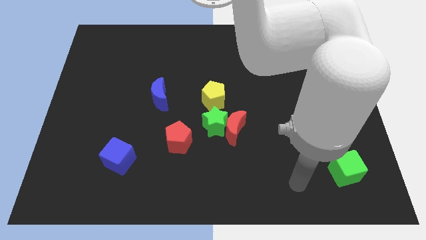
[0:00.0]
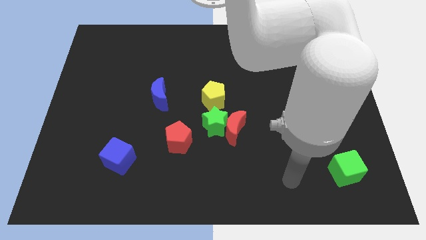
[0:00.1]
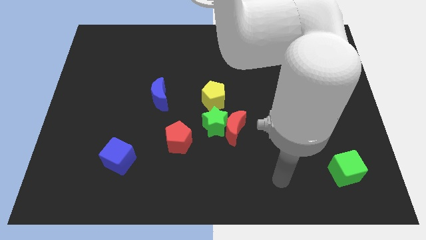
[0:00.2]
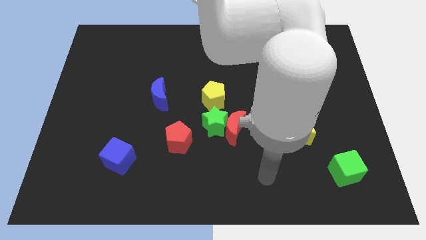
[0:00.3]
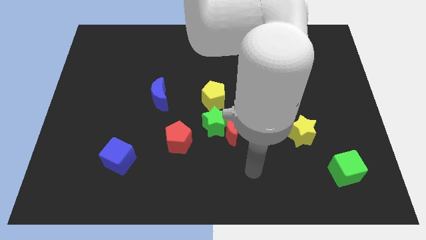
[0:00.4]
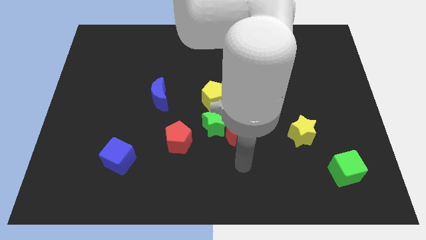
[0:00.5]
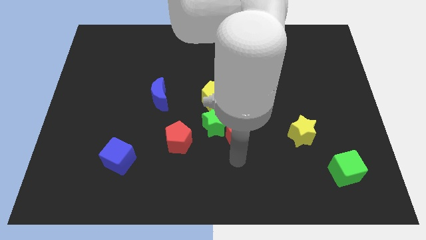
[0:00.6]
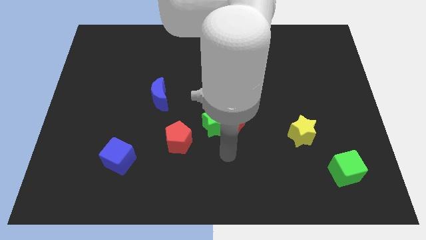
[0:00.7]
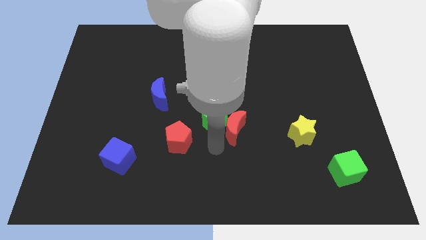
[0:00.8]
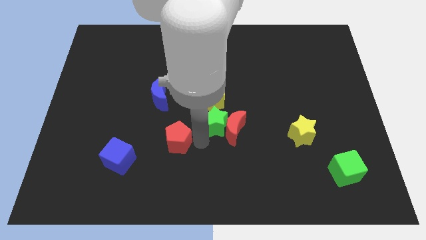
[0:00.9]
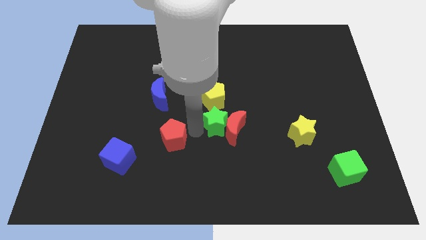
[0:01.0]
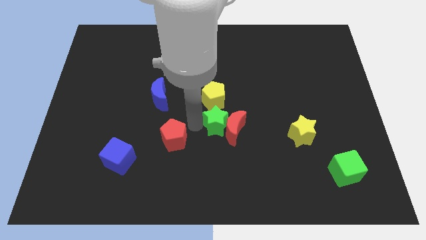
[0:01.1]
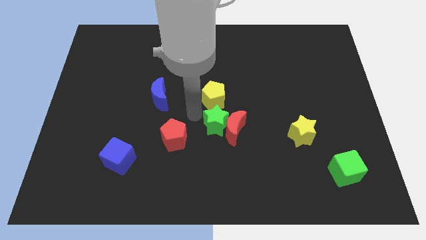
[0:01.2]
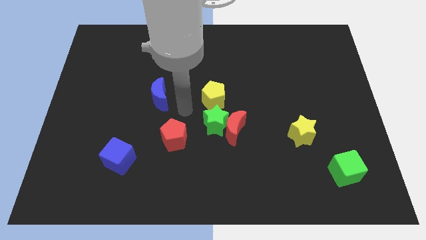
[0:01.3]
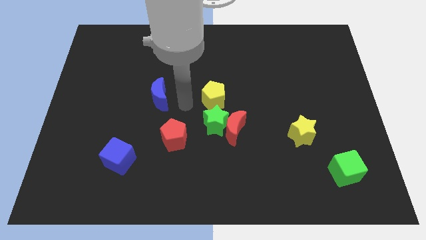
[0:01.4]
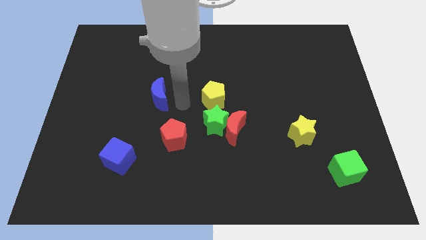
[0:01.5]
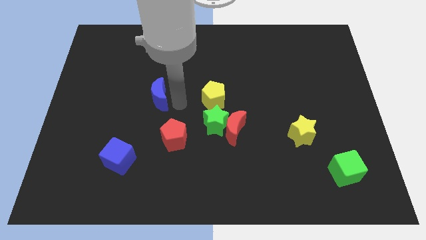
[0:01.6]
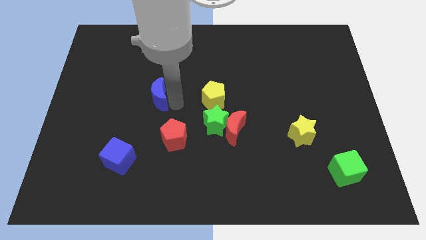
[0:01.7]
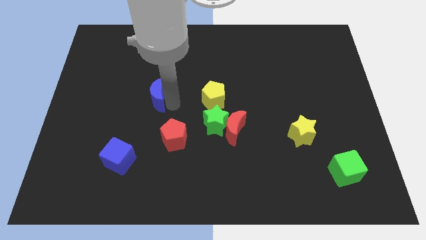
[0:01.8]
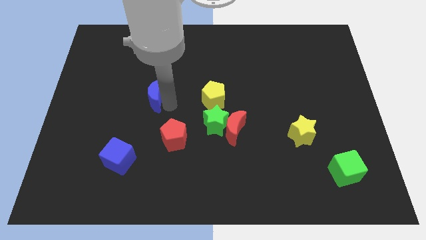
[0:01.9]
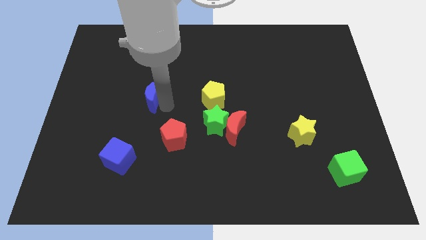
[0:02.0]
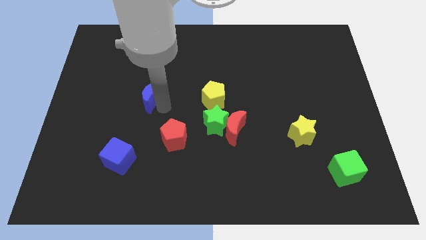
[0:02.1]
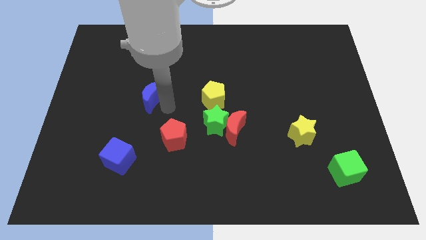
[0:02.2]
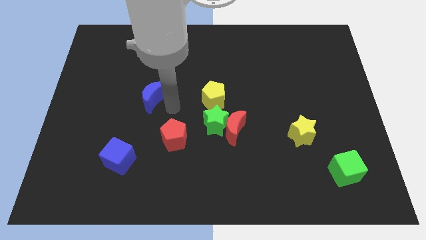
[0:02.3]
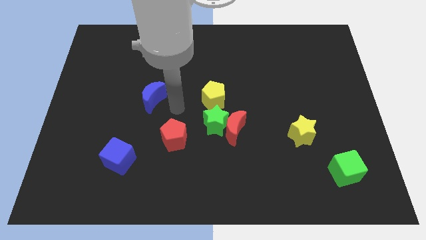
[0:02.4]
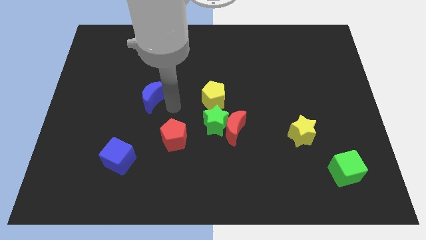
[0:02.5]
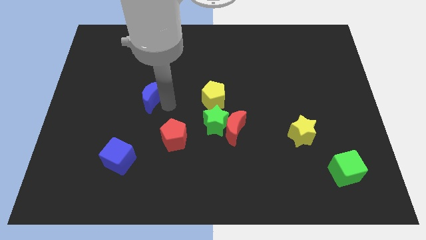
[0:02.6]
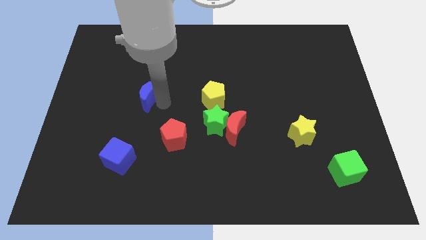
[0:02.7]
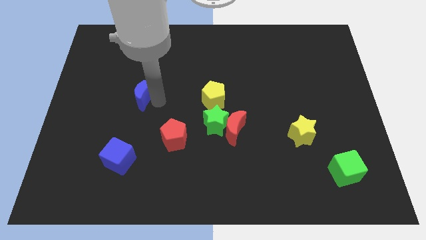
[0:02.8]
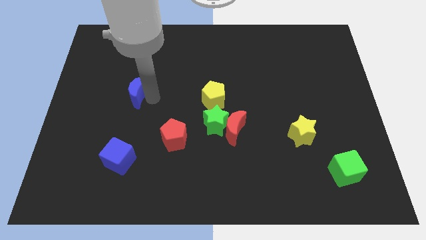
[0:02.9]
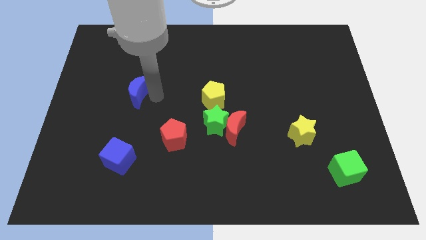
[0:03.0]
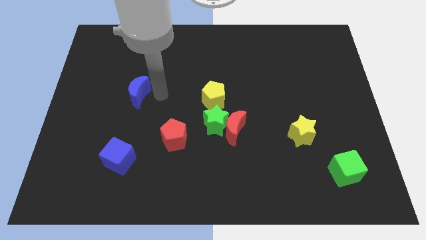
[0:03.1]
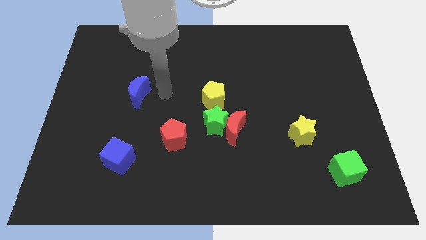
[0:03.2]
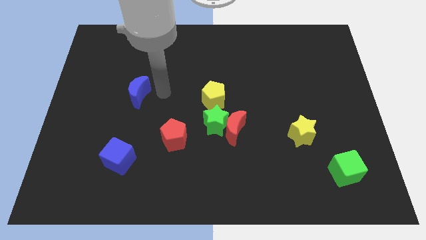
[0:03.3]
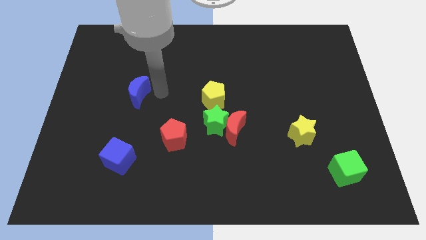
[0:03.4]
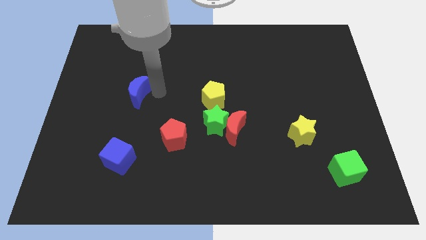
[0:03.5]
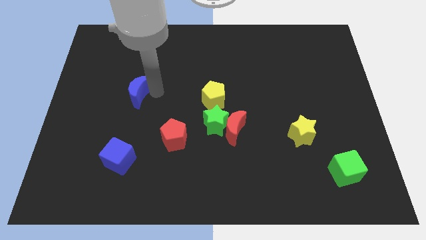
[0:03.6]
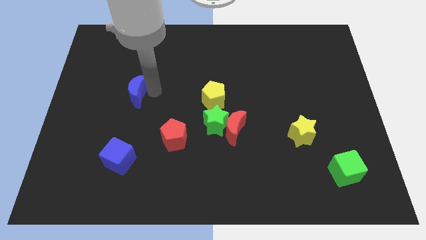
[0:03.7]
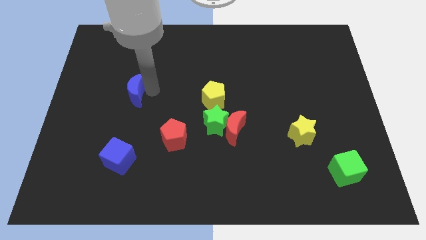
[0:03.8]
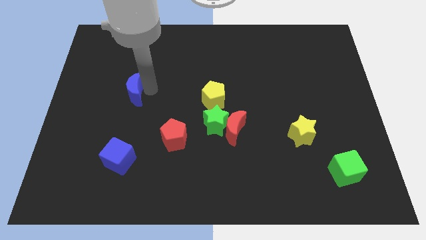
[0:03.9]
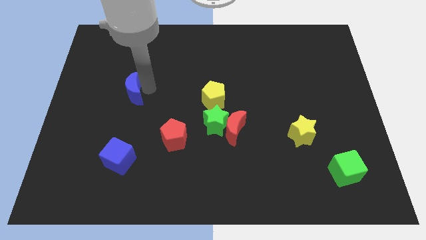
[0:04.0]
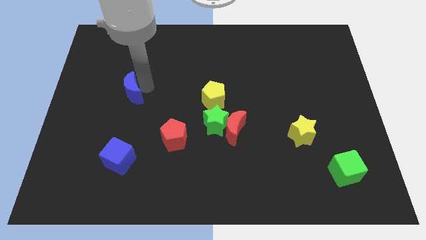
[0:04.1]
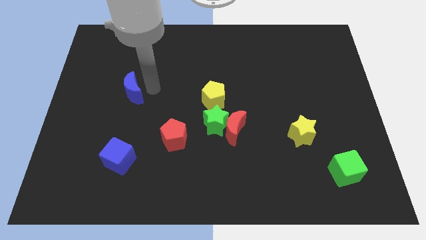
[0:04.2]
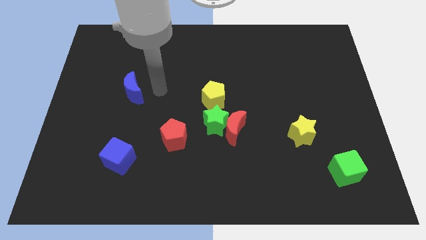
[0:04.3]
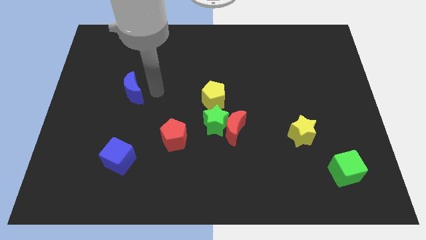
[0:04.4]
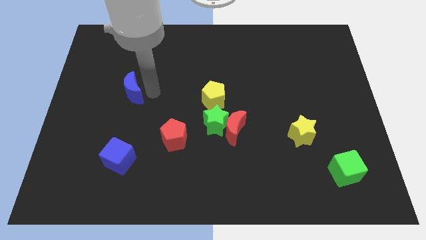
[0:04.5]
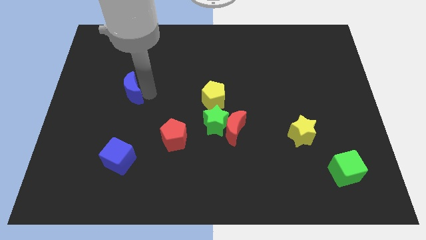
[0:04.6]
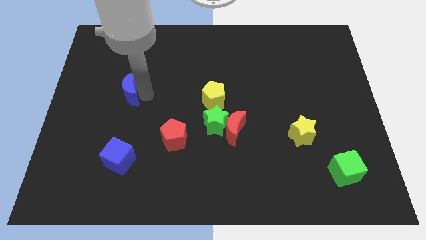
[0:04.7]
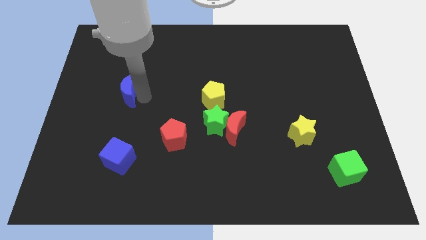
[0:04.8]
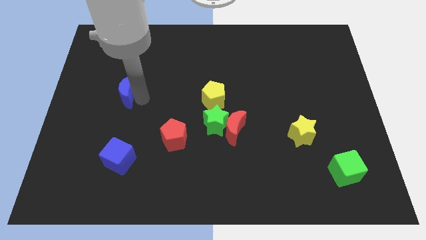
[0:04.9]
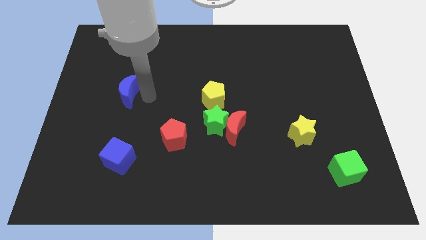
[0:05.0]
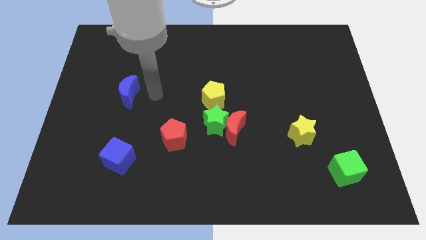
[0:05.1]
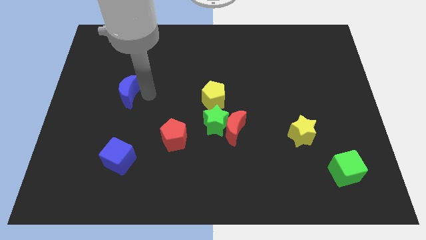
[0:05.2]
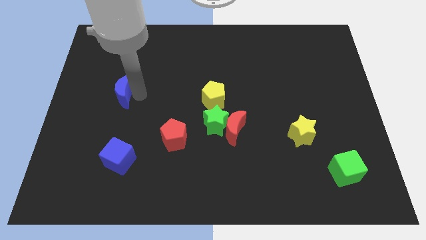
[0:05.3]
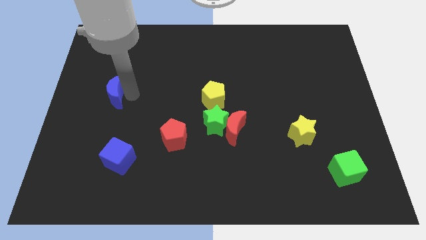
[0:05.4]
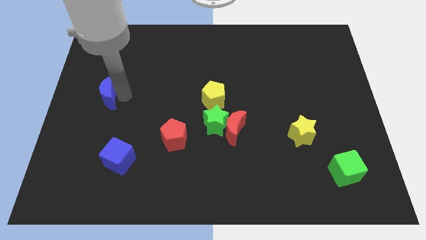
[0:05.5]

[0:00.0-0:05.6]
slide the blue moon to the left side of the board

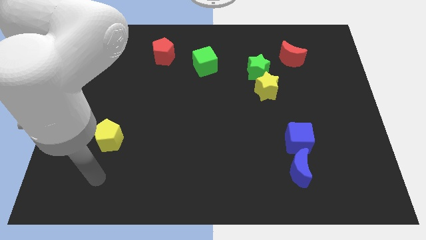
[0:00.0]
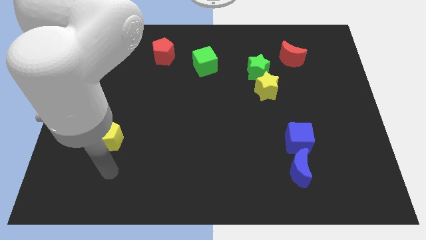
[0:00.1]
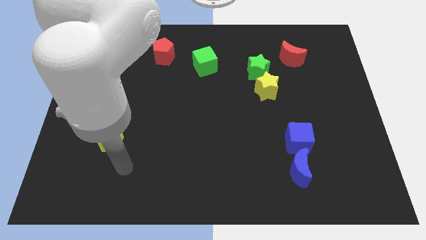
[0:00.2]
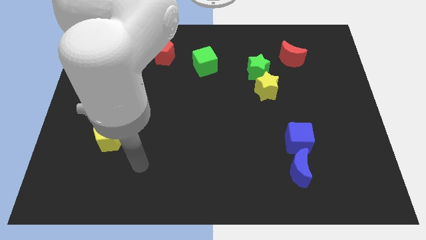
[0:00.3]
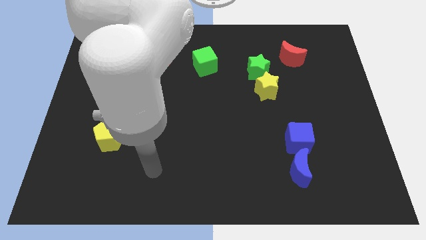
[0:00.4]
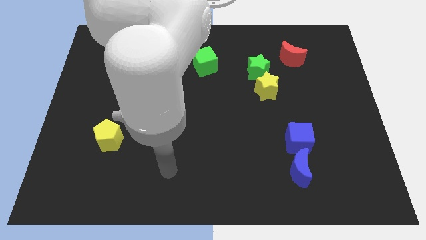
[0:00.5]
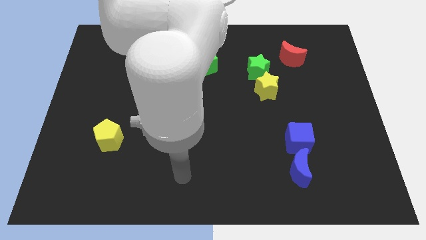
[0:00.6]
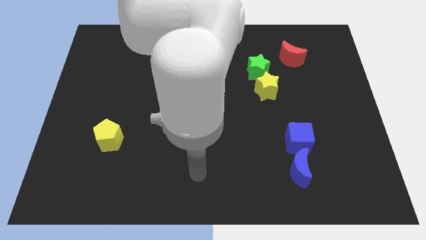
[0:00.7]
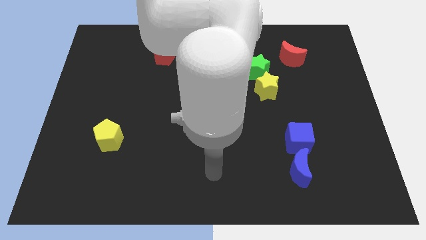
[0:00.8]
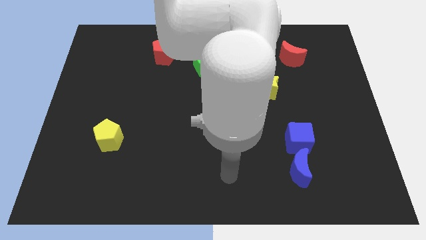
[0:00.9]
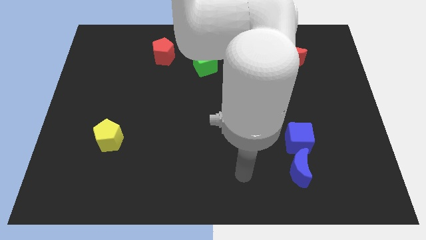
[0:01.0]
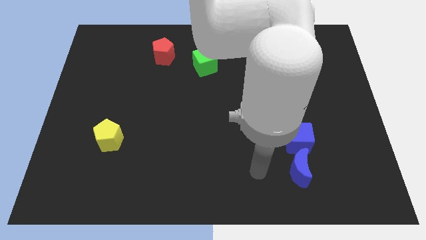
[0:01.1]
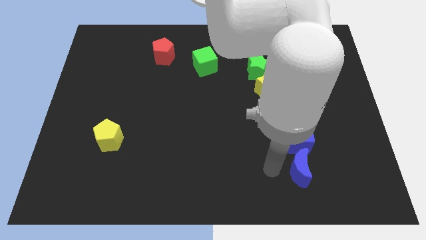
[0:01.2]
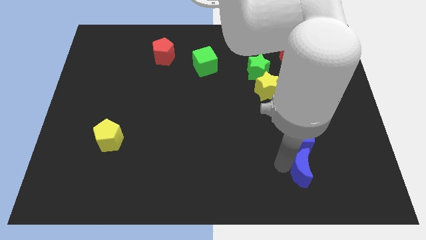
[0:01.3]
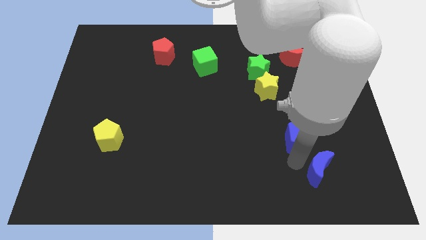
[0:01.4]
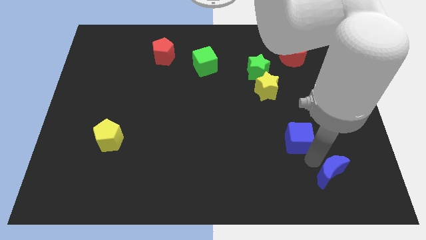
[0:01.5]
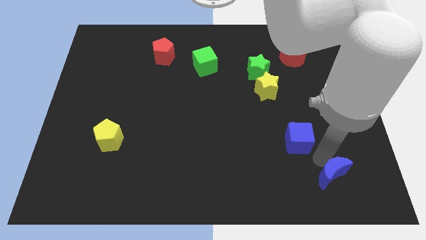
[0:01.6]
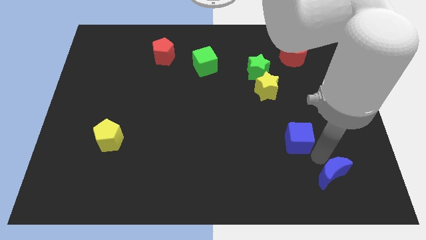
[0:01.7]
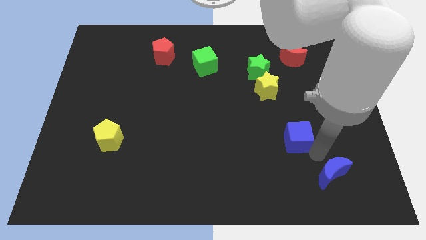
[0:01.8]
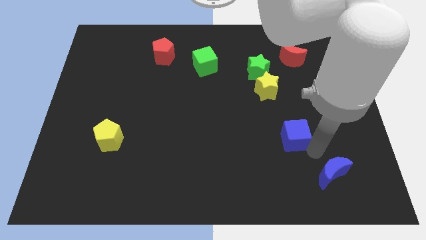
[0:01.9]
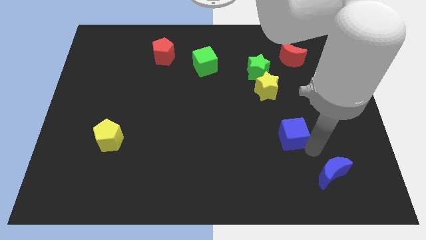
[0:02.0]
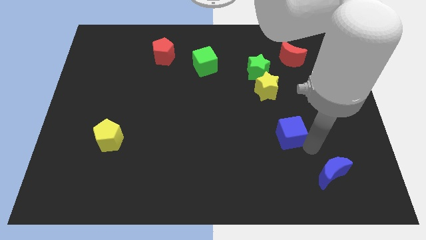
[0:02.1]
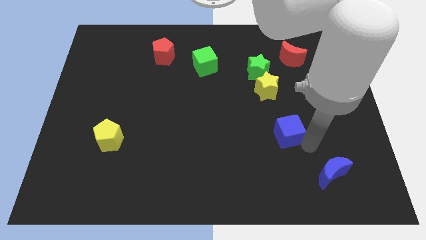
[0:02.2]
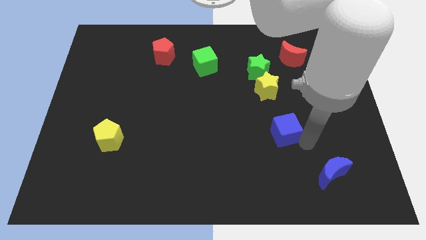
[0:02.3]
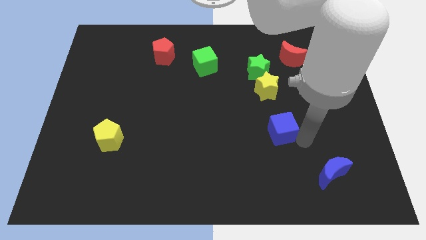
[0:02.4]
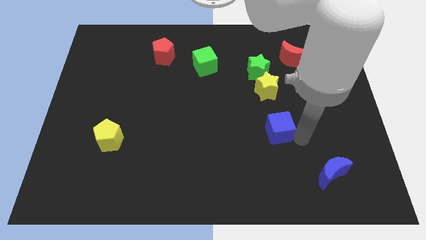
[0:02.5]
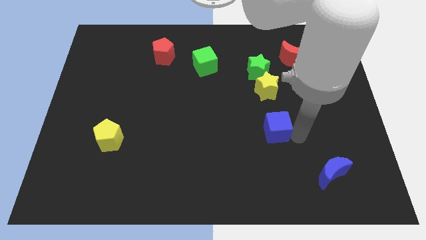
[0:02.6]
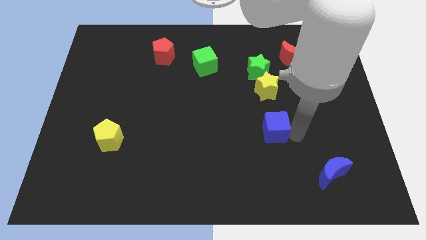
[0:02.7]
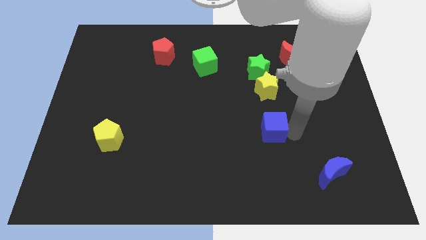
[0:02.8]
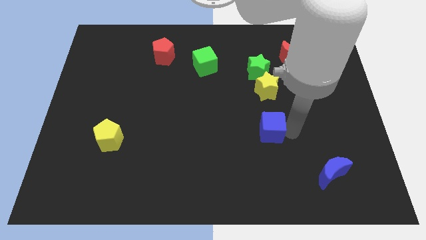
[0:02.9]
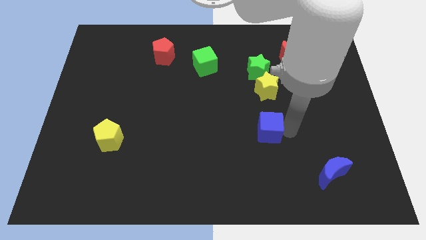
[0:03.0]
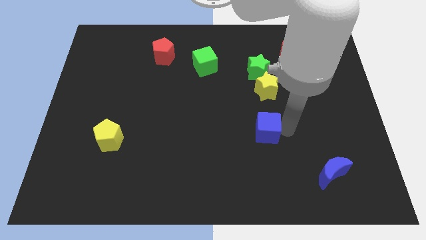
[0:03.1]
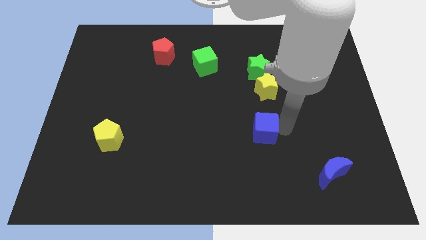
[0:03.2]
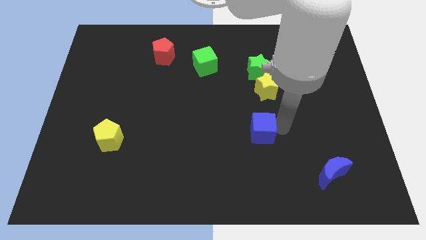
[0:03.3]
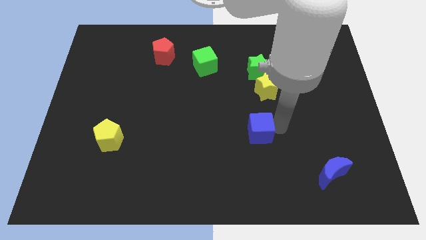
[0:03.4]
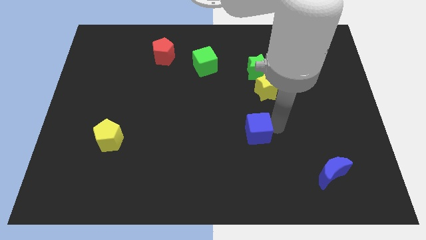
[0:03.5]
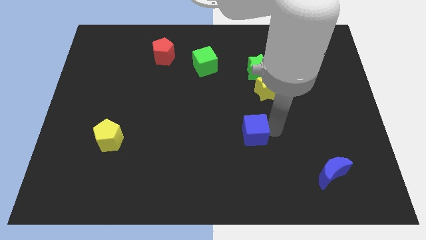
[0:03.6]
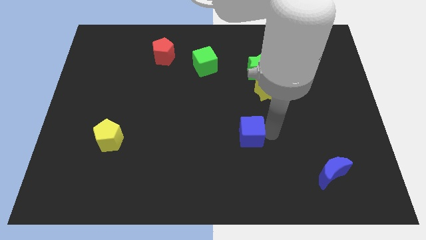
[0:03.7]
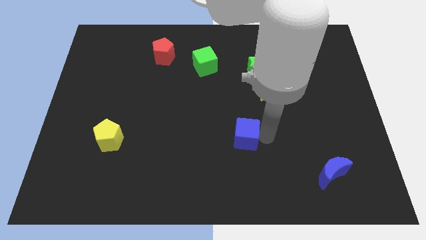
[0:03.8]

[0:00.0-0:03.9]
push the blue cube to the center of the board
